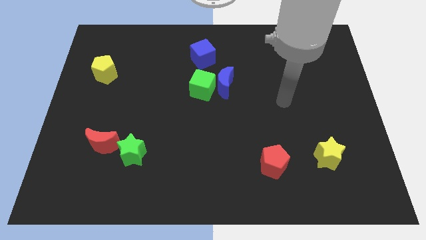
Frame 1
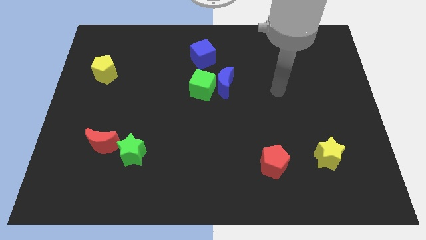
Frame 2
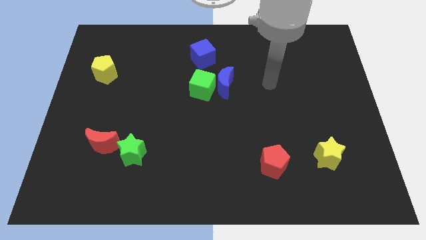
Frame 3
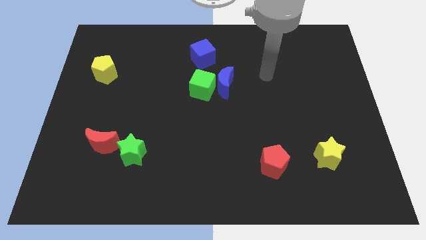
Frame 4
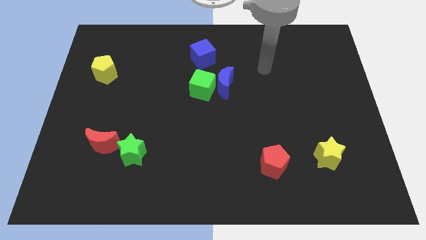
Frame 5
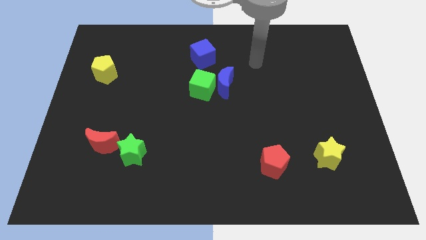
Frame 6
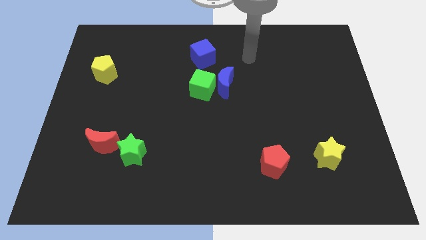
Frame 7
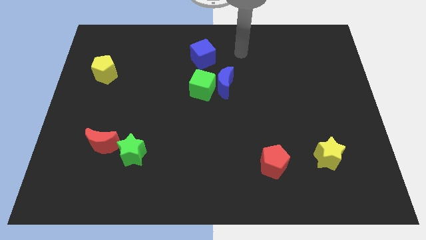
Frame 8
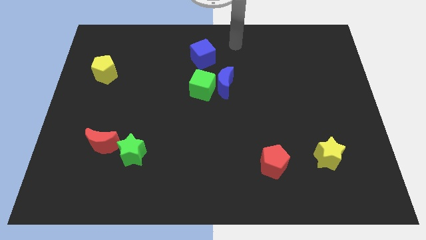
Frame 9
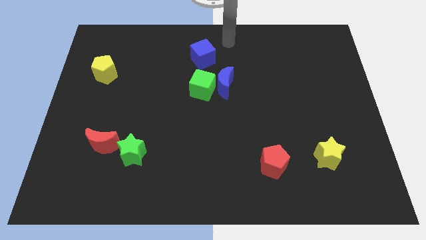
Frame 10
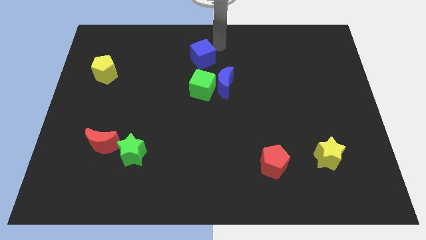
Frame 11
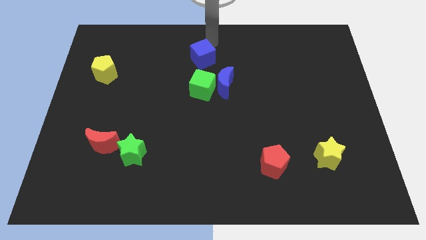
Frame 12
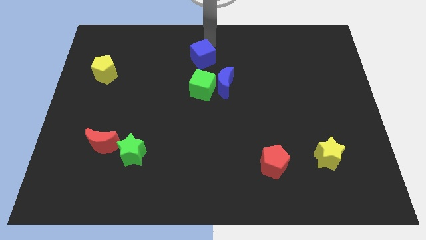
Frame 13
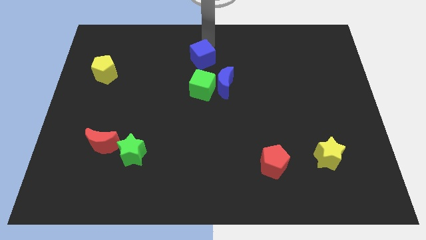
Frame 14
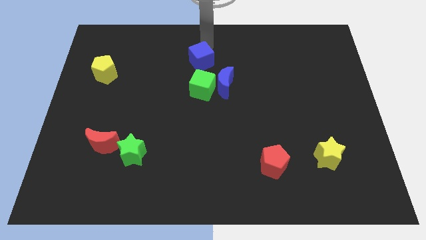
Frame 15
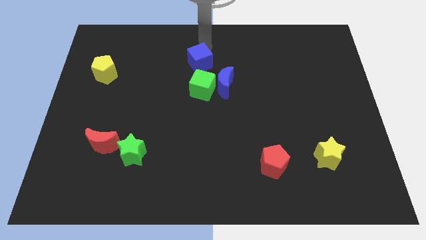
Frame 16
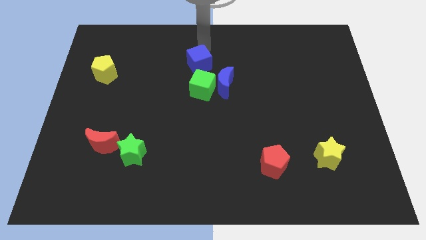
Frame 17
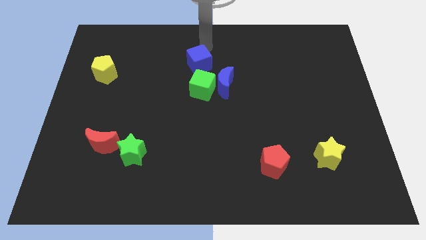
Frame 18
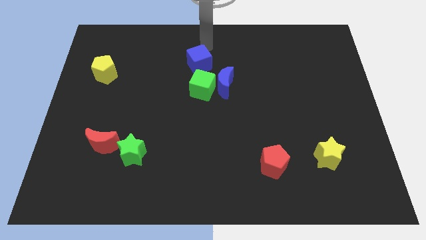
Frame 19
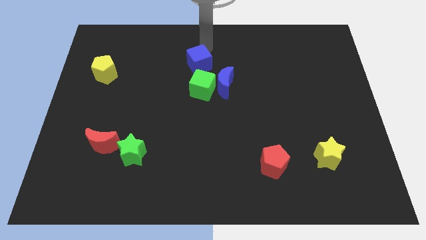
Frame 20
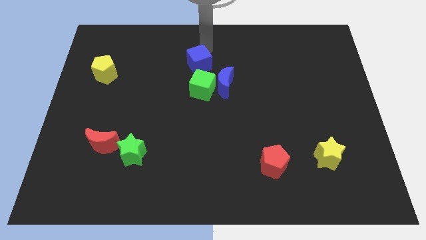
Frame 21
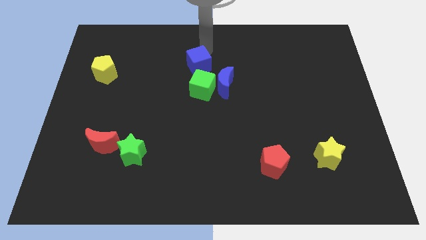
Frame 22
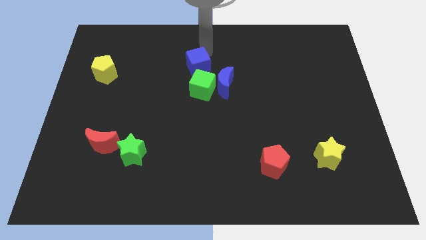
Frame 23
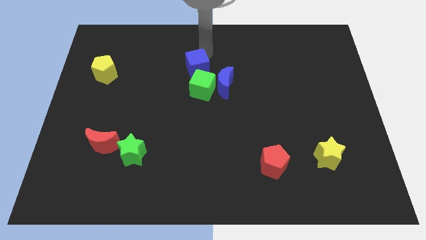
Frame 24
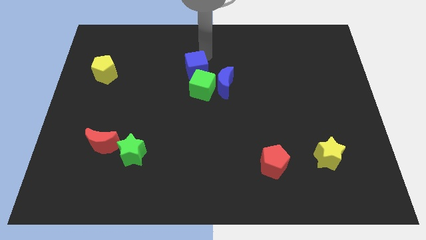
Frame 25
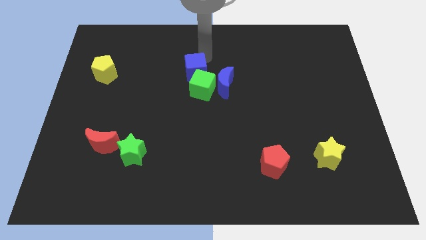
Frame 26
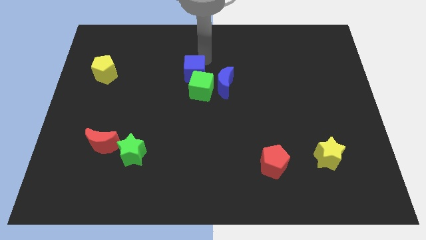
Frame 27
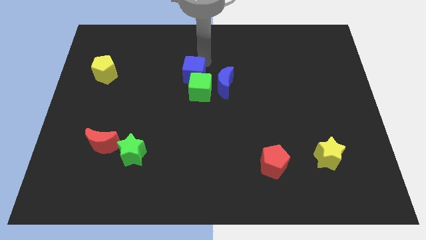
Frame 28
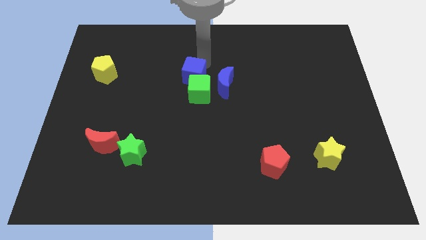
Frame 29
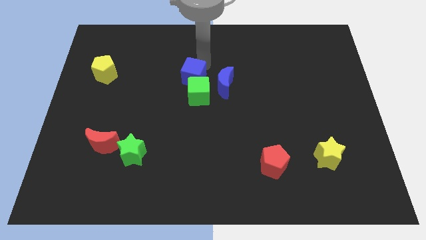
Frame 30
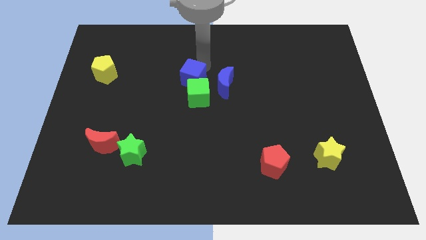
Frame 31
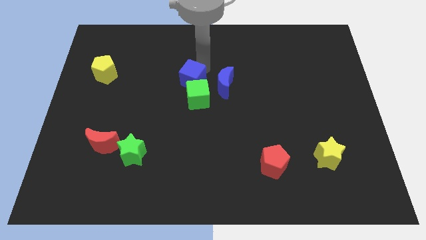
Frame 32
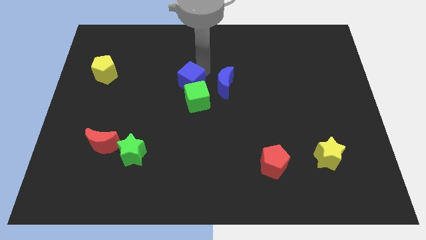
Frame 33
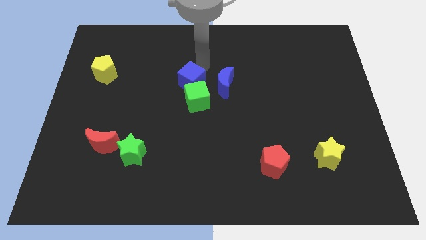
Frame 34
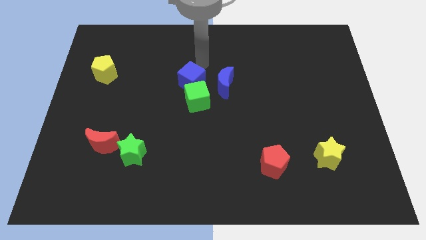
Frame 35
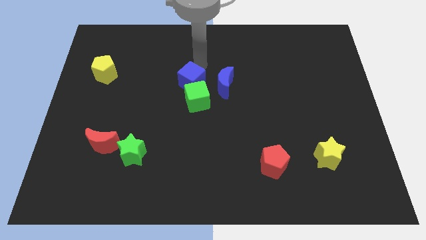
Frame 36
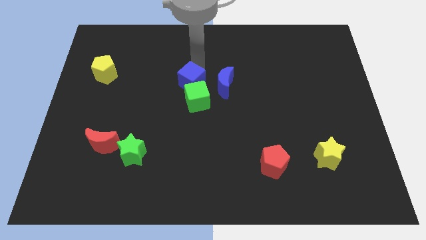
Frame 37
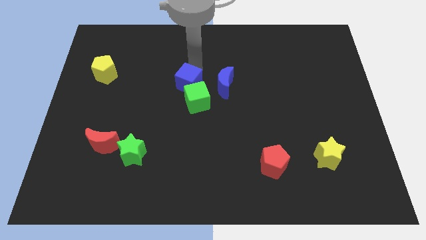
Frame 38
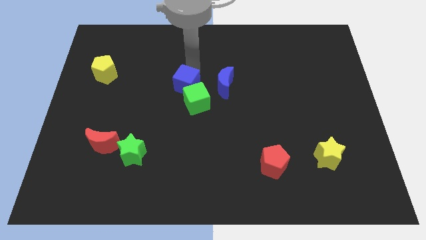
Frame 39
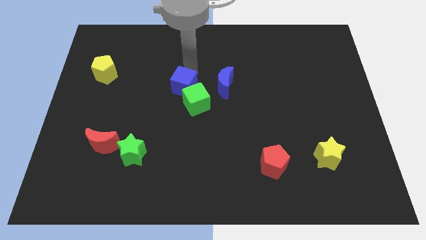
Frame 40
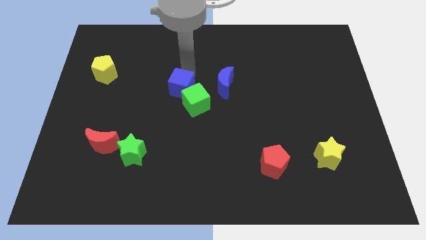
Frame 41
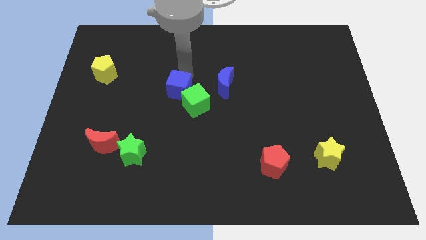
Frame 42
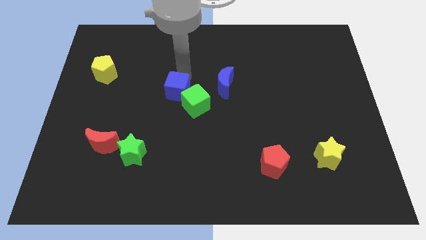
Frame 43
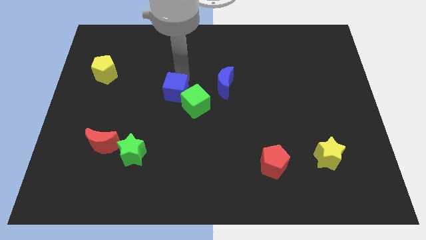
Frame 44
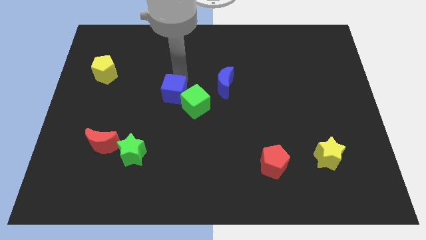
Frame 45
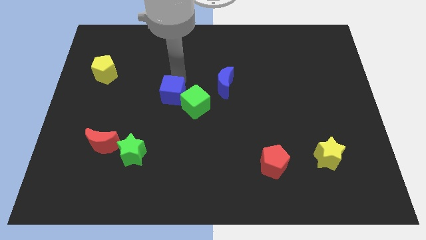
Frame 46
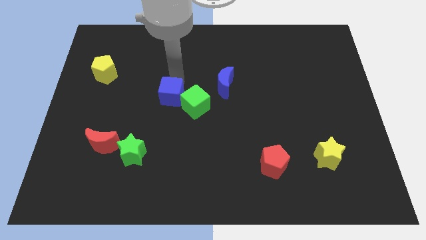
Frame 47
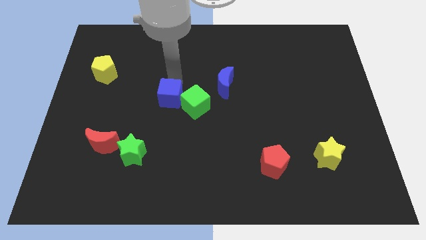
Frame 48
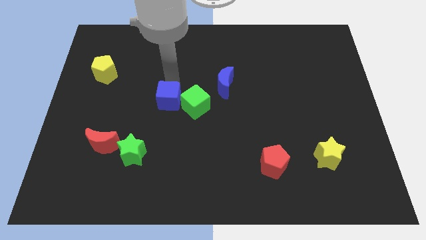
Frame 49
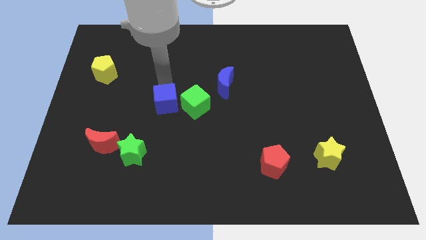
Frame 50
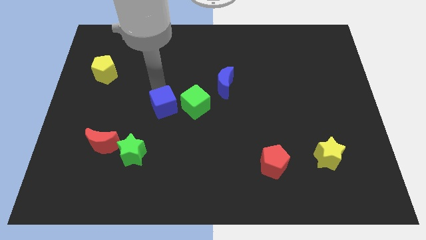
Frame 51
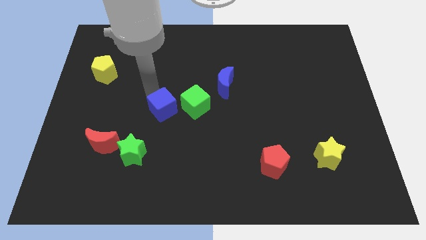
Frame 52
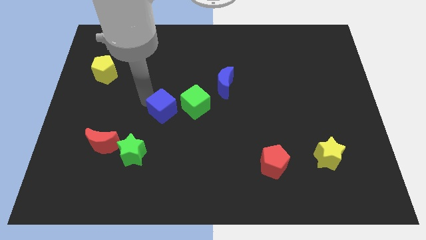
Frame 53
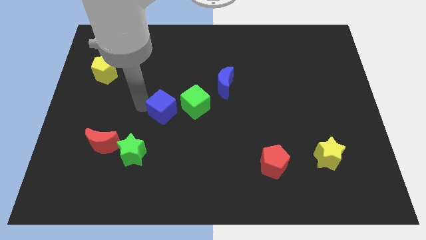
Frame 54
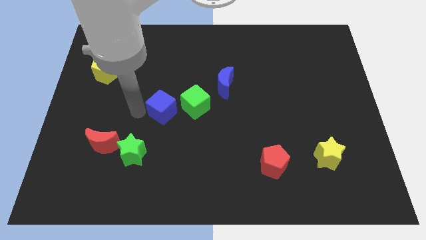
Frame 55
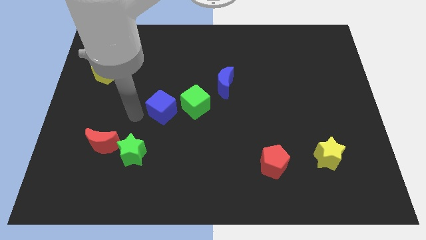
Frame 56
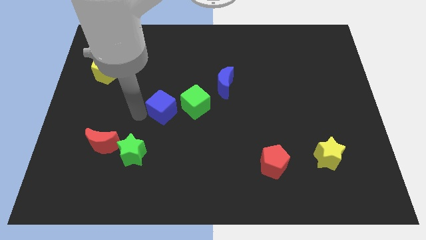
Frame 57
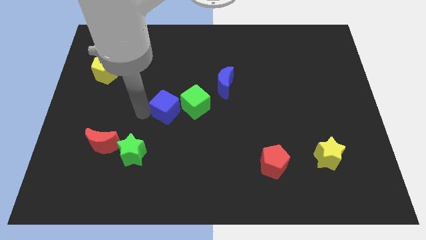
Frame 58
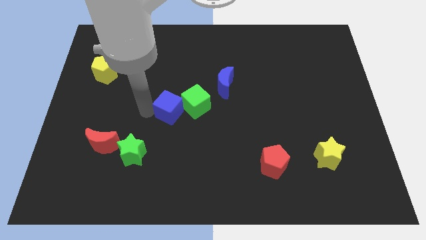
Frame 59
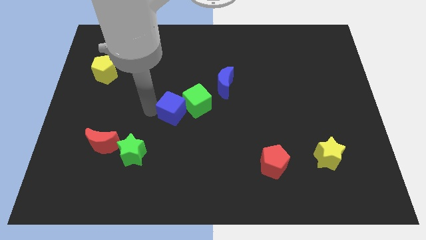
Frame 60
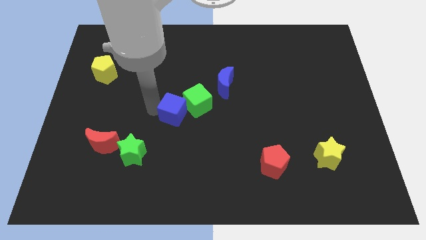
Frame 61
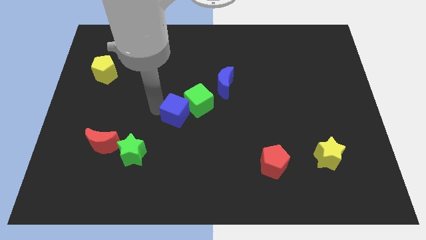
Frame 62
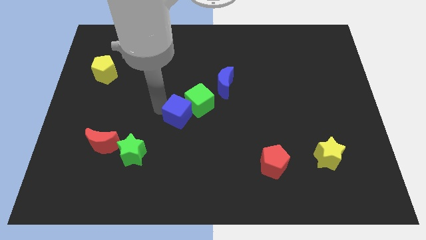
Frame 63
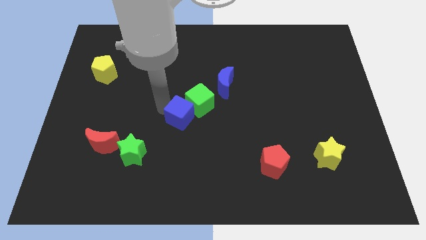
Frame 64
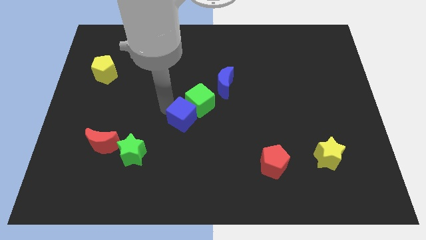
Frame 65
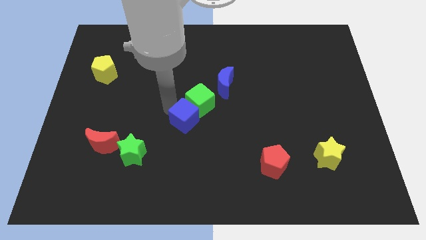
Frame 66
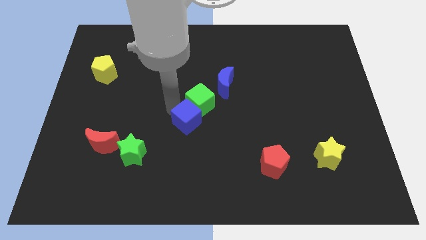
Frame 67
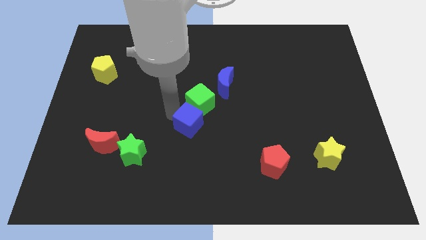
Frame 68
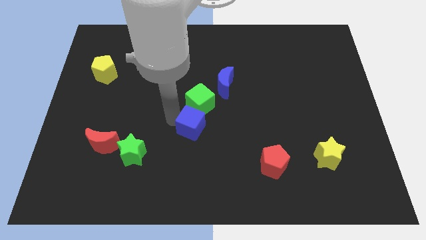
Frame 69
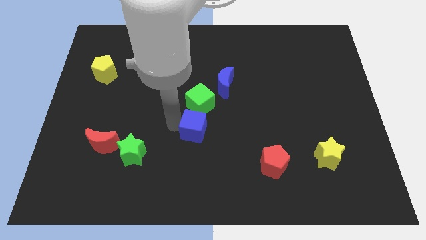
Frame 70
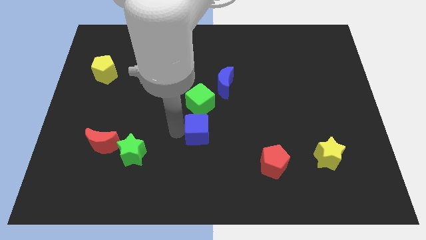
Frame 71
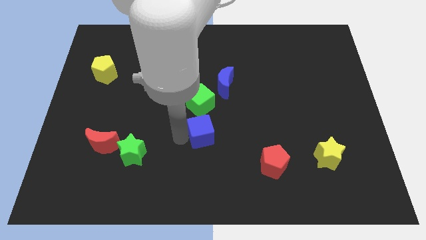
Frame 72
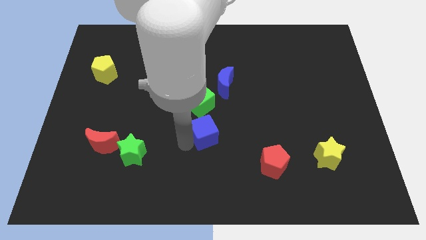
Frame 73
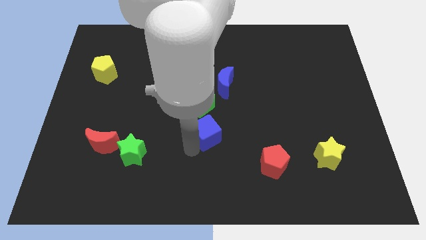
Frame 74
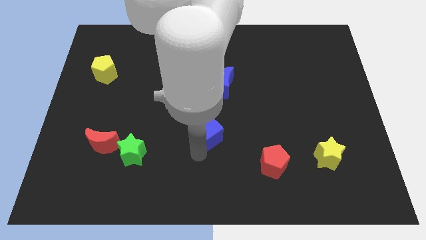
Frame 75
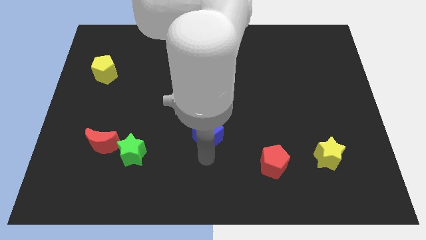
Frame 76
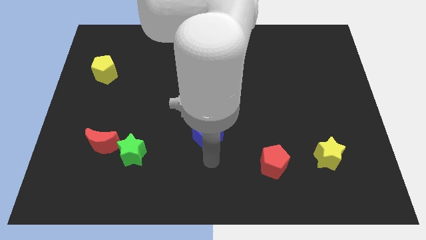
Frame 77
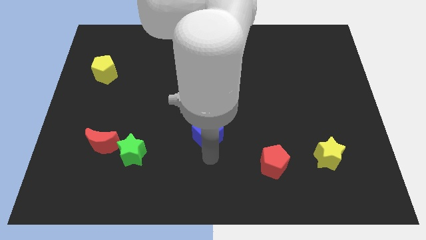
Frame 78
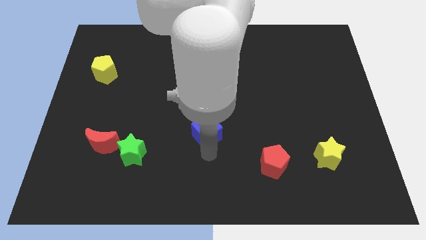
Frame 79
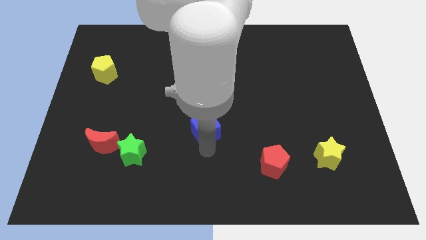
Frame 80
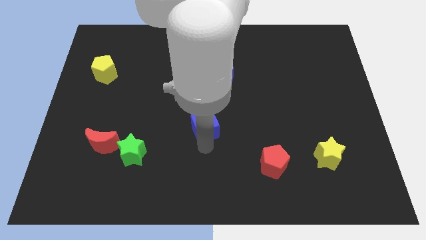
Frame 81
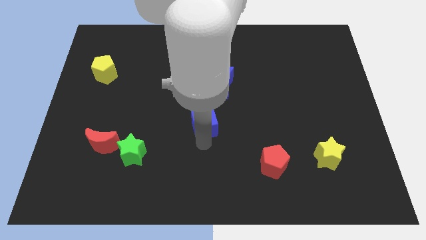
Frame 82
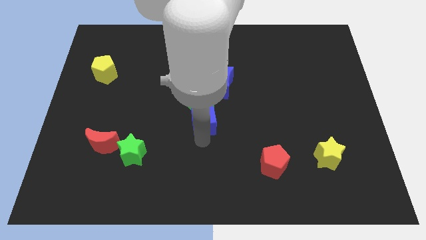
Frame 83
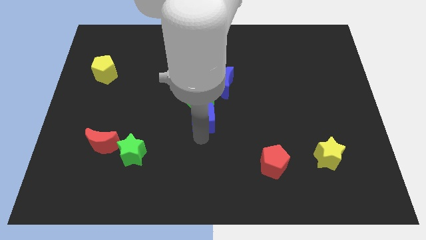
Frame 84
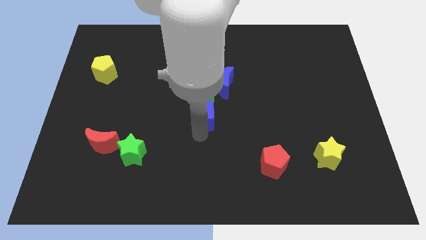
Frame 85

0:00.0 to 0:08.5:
push the blue cube to the bottom left of the blue moon
